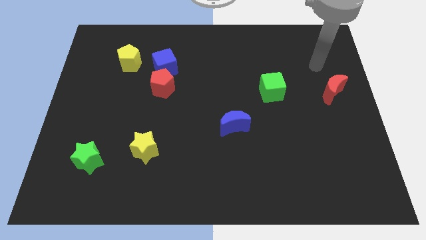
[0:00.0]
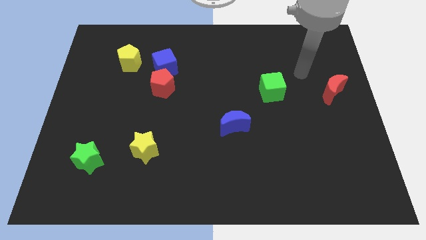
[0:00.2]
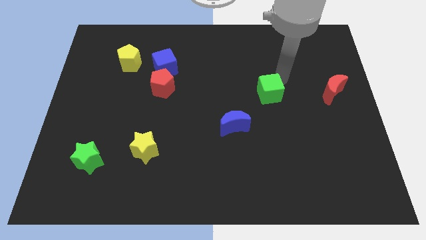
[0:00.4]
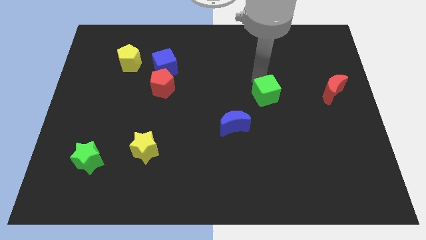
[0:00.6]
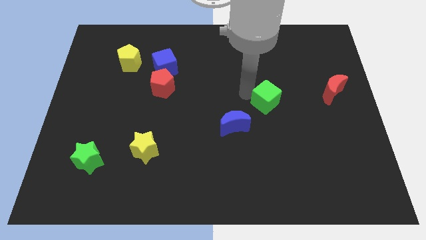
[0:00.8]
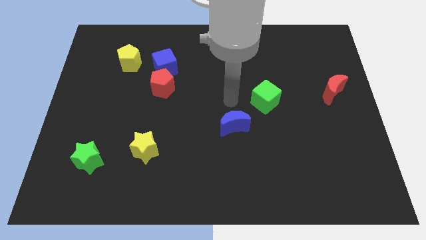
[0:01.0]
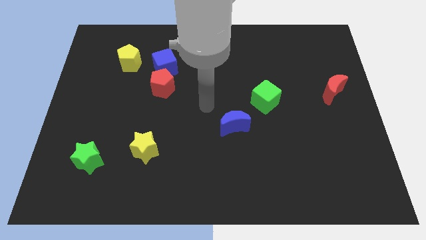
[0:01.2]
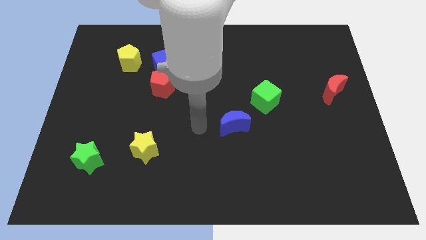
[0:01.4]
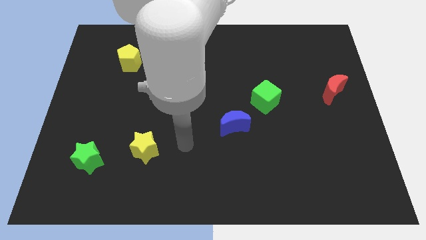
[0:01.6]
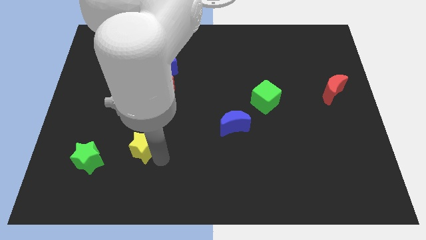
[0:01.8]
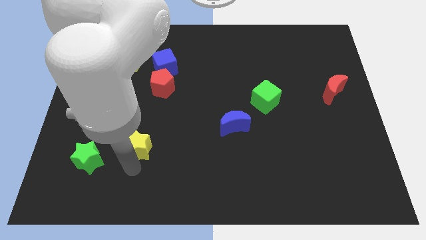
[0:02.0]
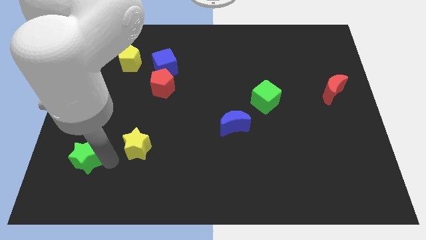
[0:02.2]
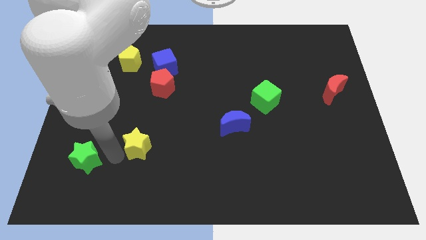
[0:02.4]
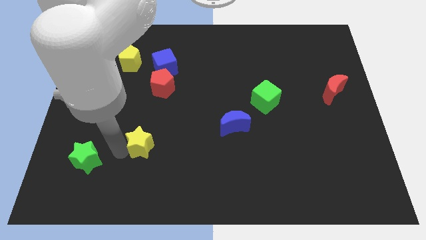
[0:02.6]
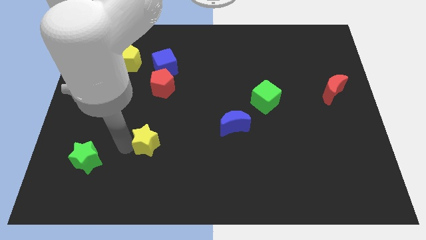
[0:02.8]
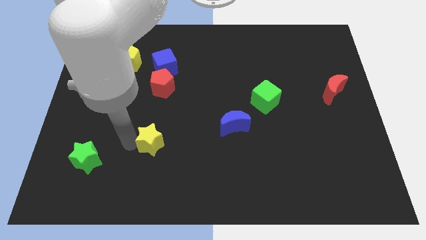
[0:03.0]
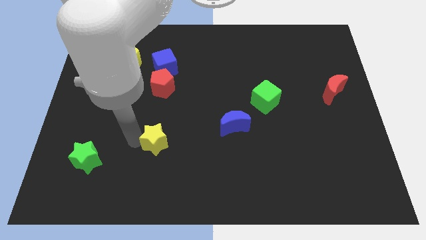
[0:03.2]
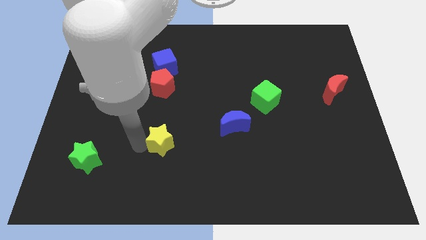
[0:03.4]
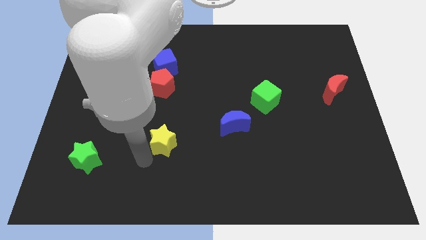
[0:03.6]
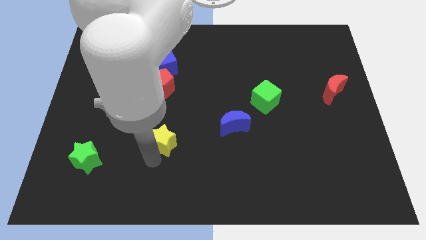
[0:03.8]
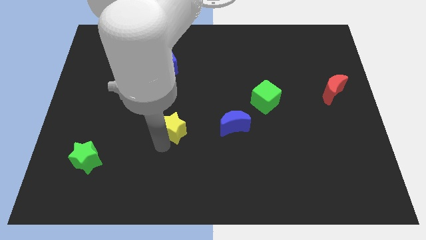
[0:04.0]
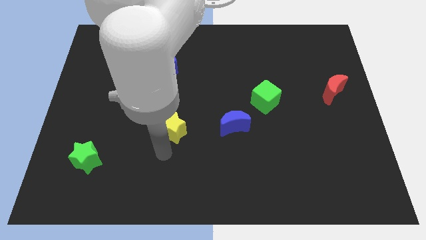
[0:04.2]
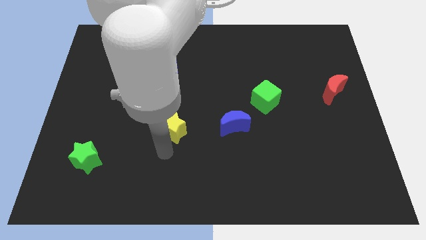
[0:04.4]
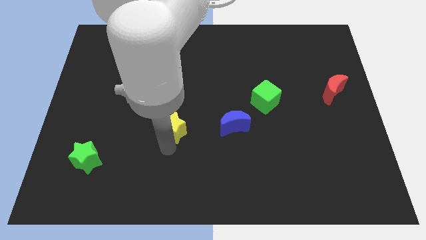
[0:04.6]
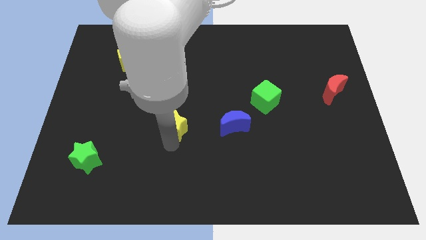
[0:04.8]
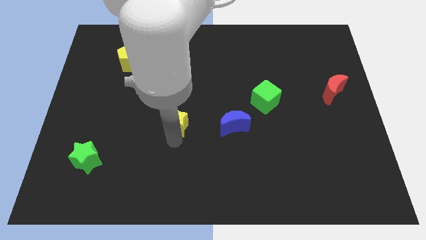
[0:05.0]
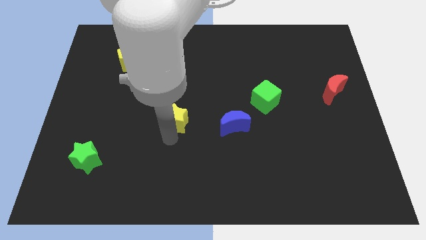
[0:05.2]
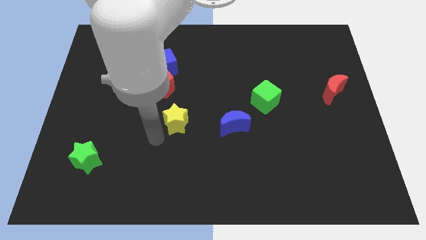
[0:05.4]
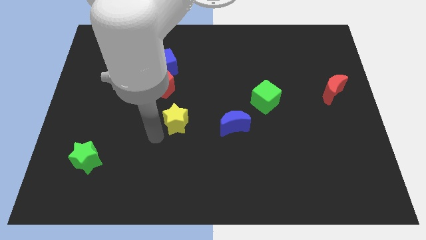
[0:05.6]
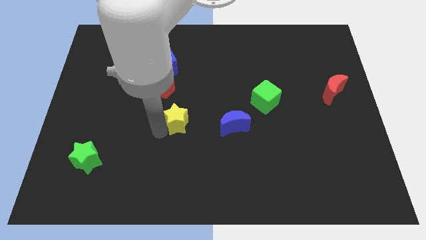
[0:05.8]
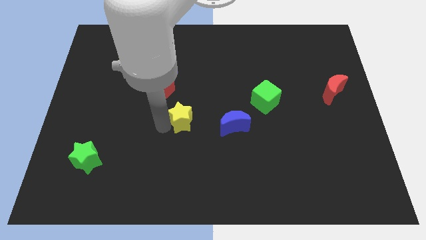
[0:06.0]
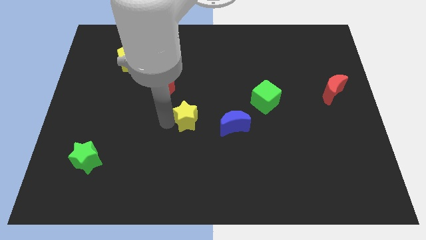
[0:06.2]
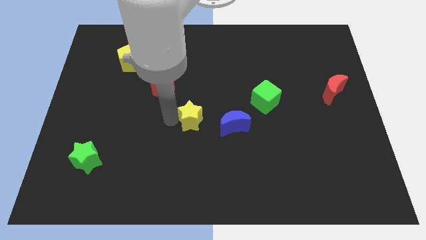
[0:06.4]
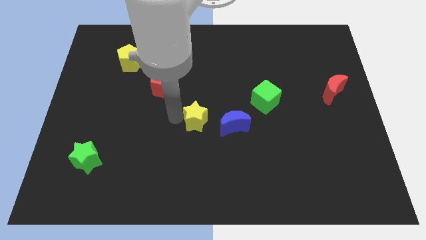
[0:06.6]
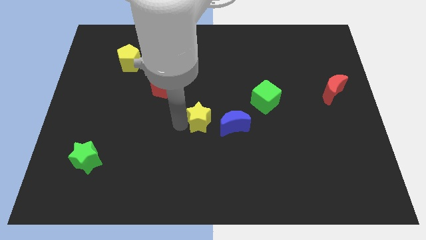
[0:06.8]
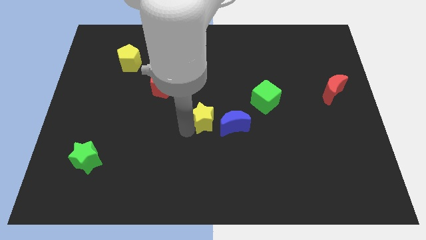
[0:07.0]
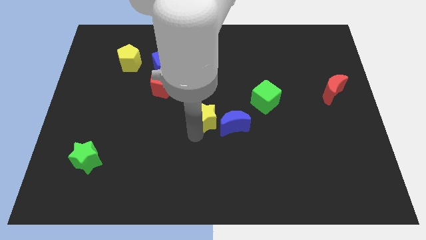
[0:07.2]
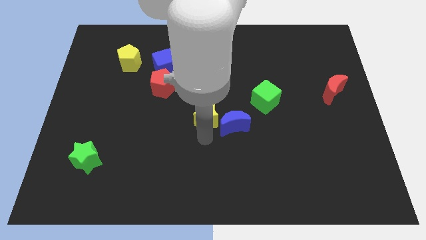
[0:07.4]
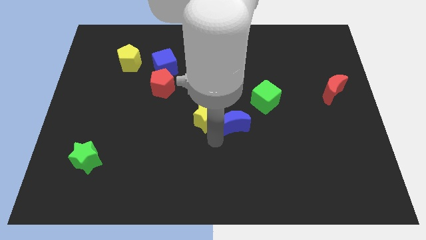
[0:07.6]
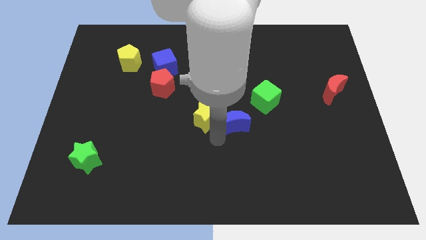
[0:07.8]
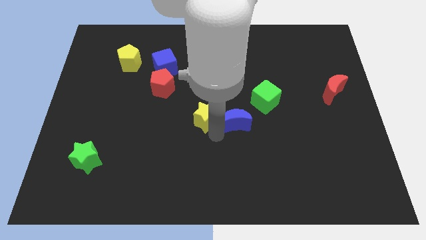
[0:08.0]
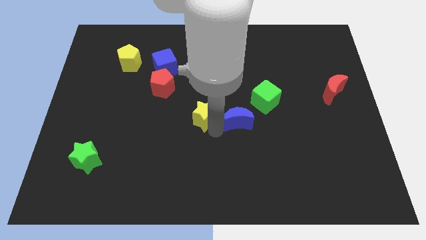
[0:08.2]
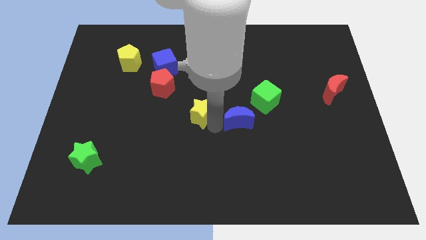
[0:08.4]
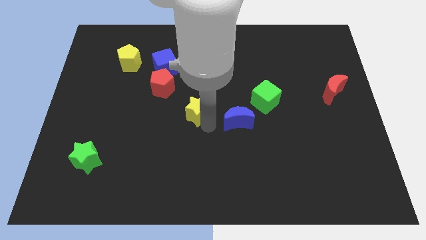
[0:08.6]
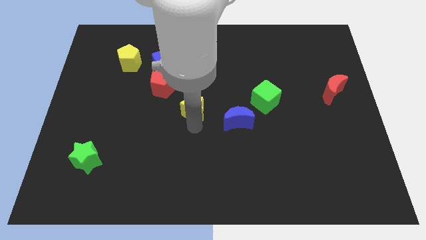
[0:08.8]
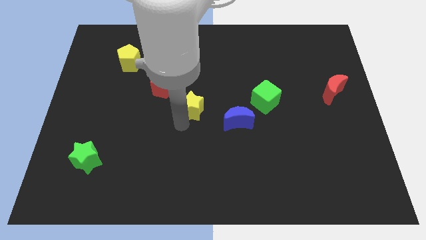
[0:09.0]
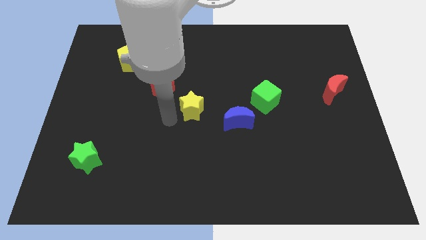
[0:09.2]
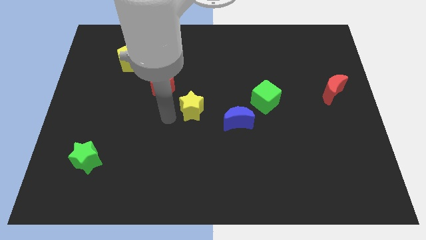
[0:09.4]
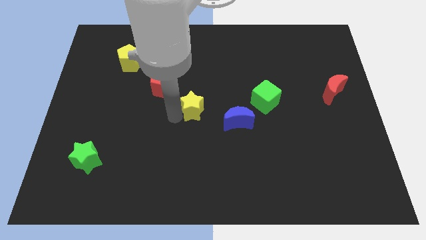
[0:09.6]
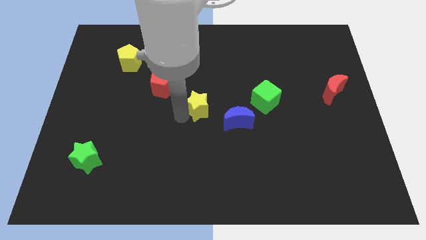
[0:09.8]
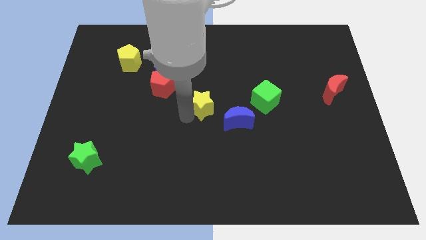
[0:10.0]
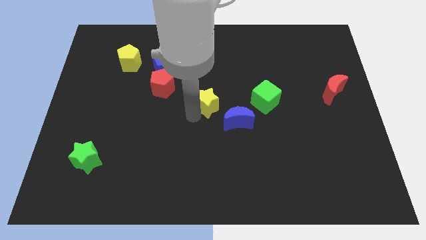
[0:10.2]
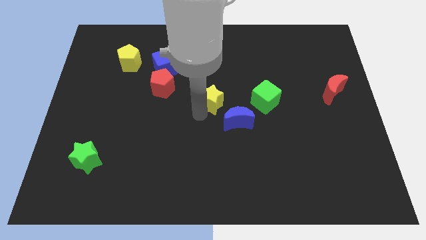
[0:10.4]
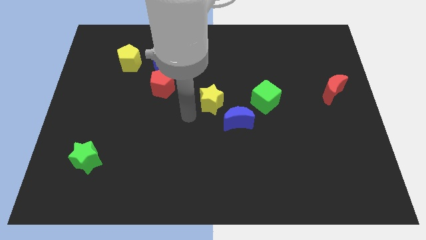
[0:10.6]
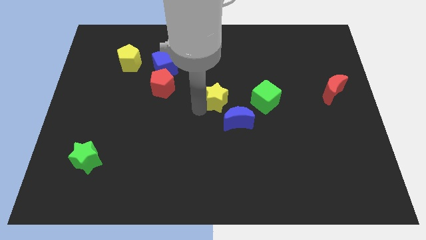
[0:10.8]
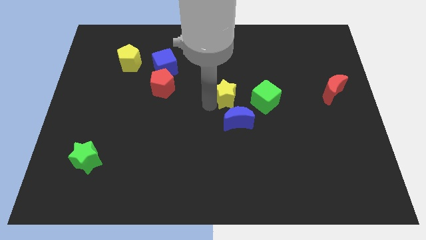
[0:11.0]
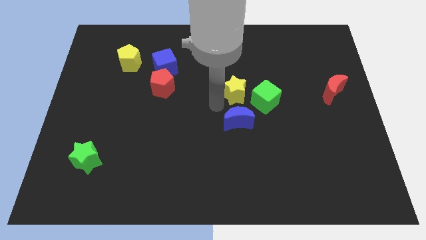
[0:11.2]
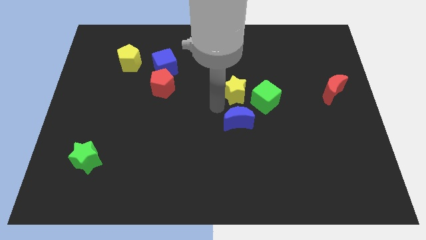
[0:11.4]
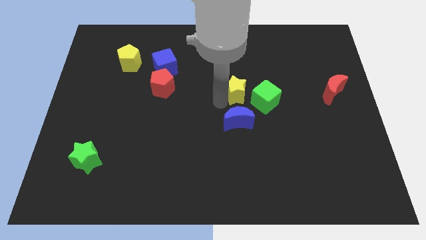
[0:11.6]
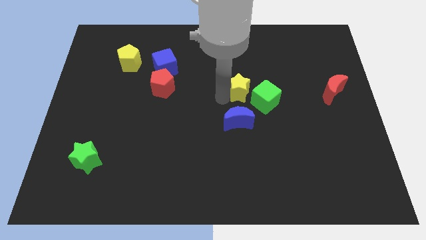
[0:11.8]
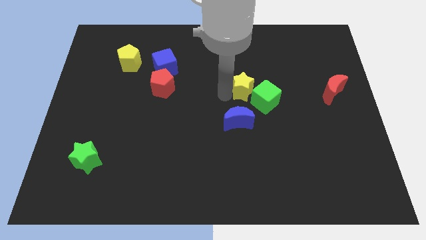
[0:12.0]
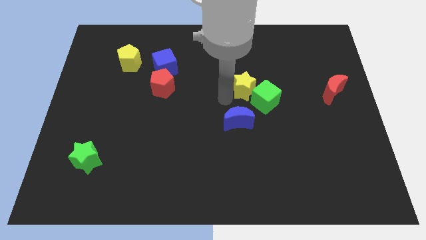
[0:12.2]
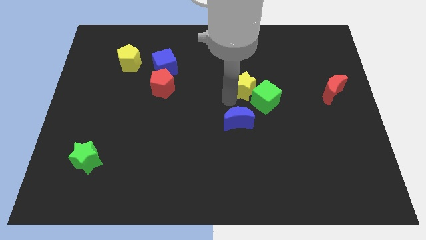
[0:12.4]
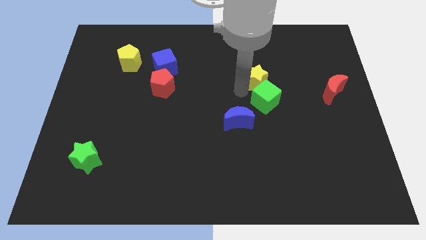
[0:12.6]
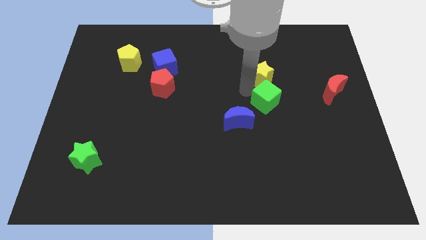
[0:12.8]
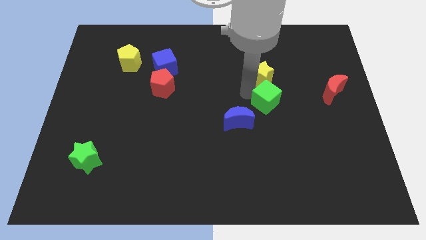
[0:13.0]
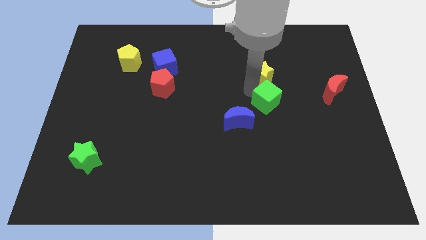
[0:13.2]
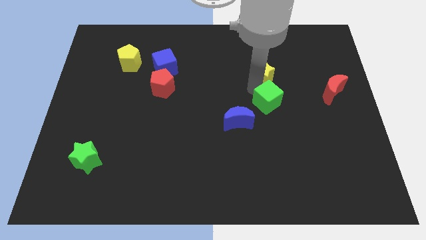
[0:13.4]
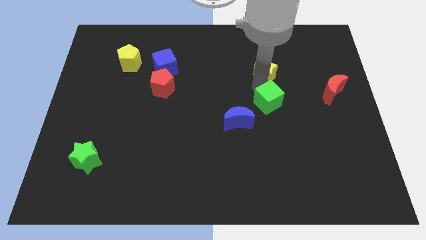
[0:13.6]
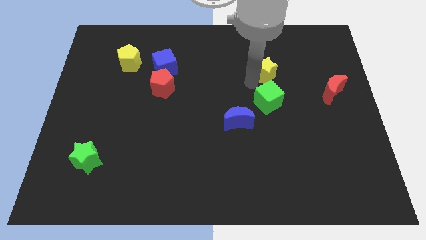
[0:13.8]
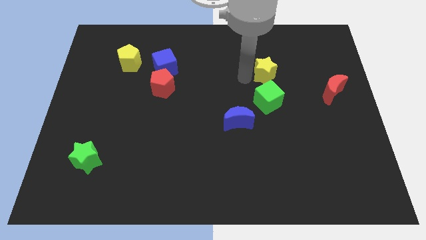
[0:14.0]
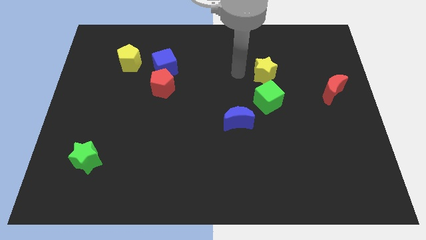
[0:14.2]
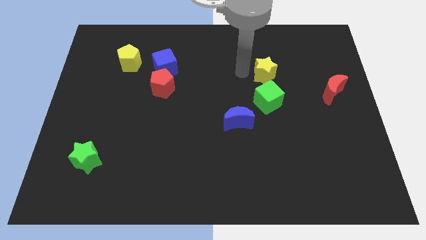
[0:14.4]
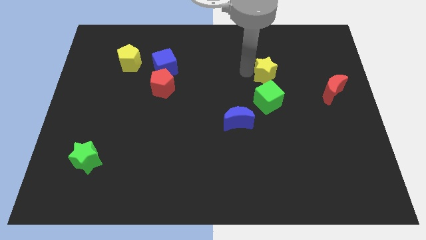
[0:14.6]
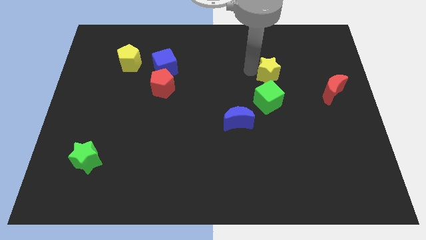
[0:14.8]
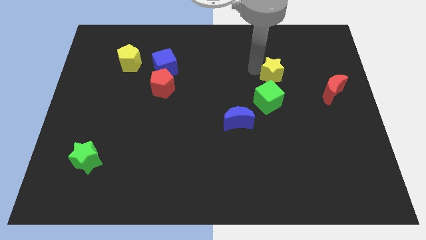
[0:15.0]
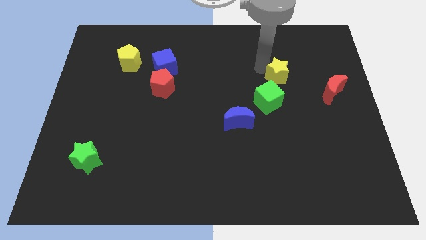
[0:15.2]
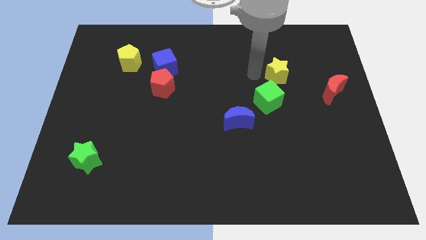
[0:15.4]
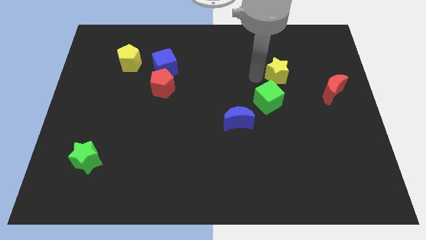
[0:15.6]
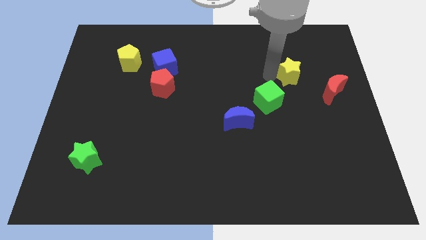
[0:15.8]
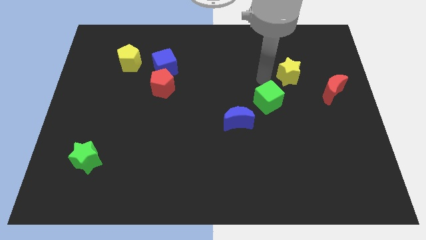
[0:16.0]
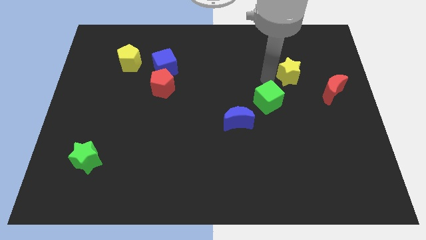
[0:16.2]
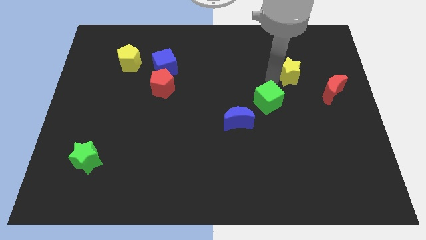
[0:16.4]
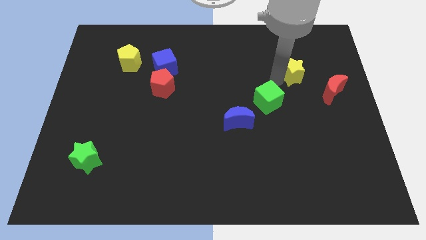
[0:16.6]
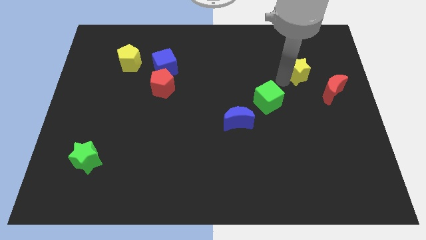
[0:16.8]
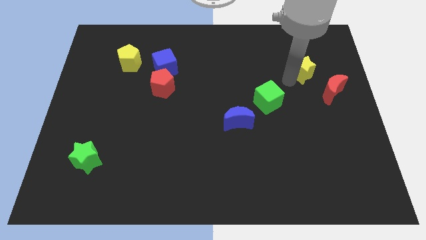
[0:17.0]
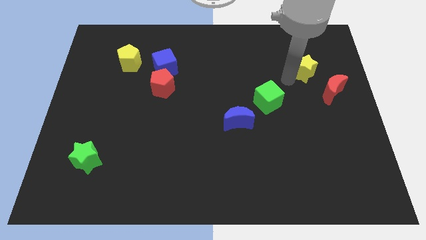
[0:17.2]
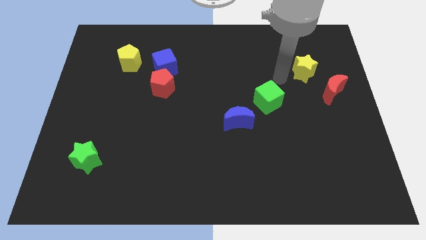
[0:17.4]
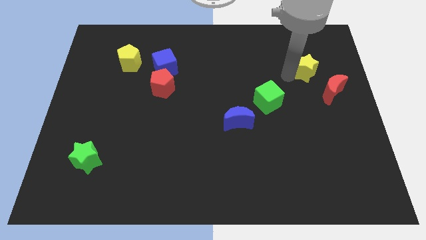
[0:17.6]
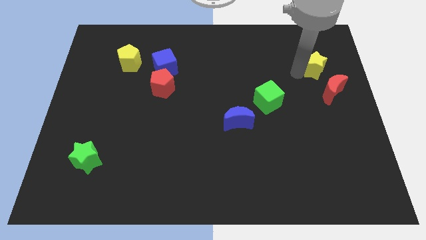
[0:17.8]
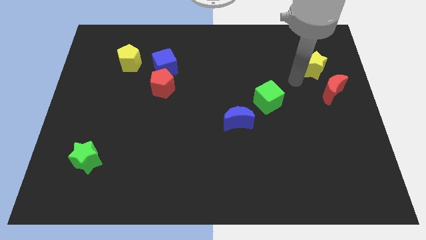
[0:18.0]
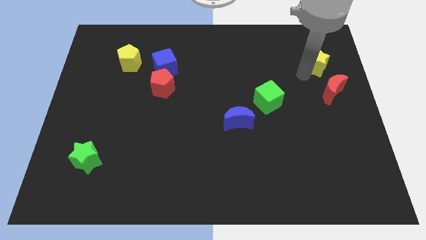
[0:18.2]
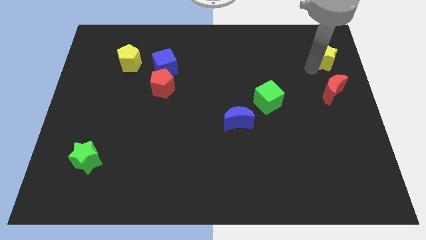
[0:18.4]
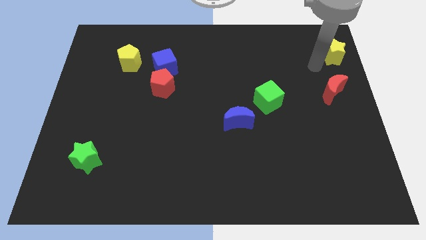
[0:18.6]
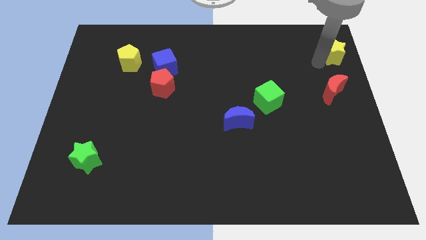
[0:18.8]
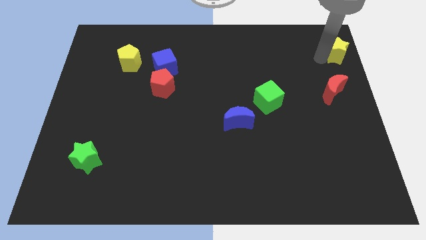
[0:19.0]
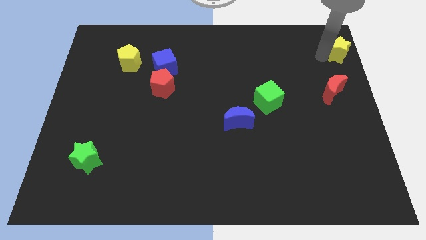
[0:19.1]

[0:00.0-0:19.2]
put the yellow star to the top right corner
